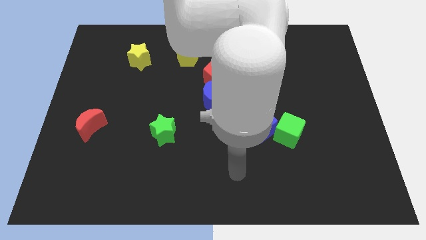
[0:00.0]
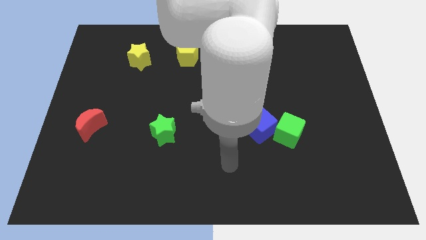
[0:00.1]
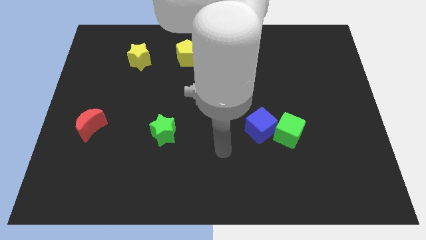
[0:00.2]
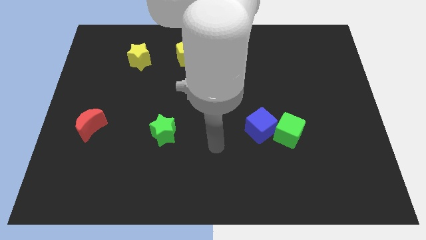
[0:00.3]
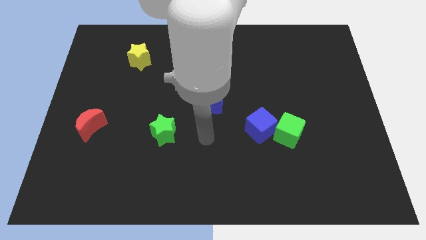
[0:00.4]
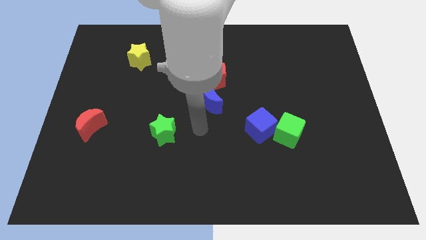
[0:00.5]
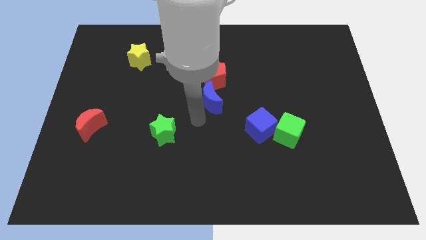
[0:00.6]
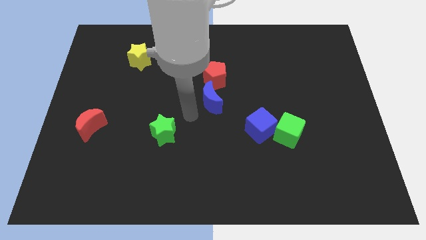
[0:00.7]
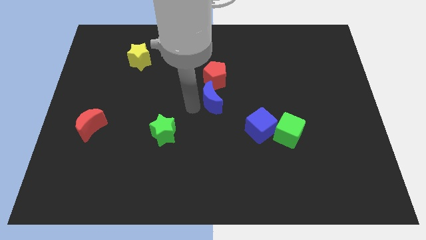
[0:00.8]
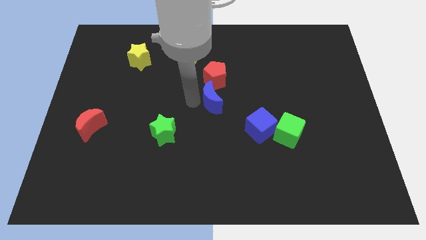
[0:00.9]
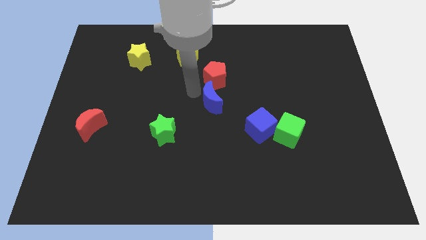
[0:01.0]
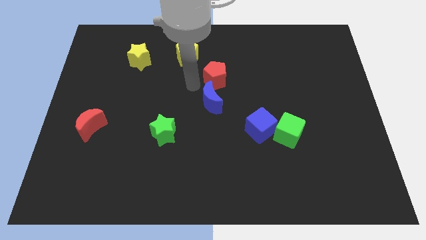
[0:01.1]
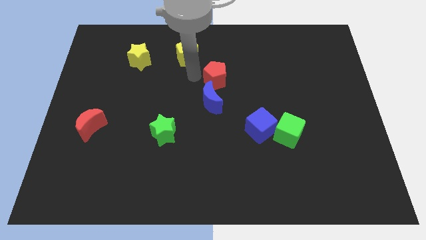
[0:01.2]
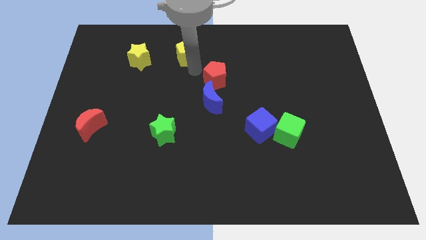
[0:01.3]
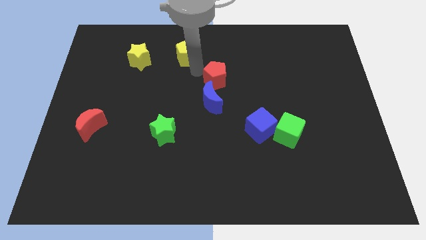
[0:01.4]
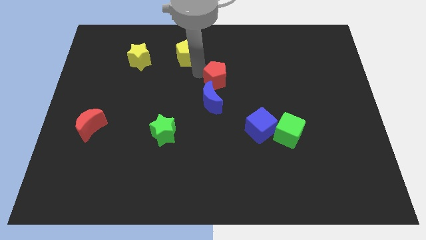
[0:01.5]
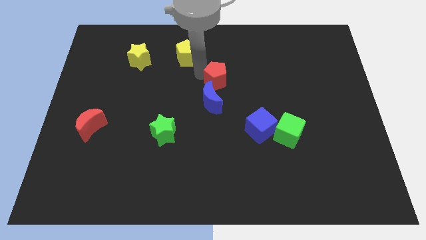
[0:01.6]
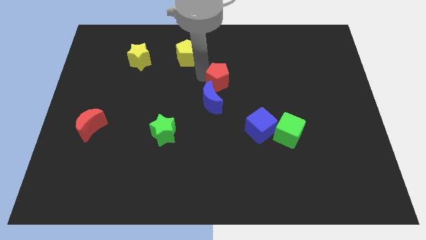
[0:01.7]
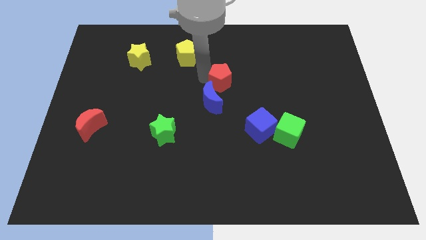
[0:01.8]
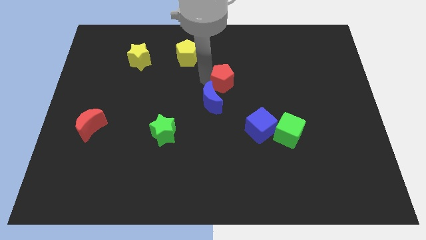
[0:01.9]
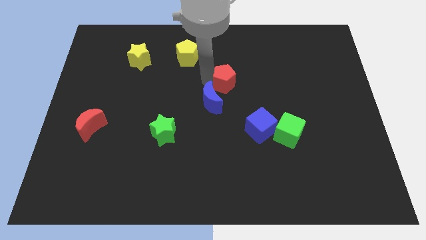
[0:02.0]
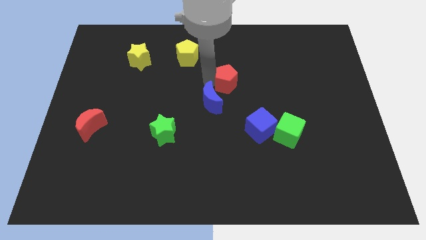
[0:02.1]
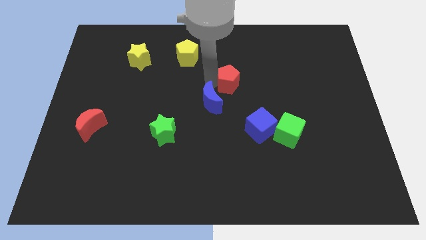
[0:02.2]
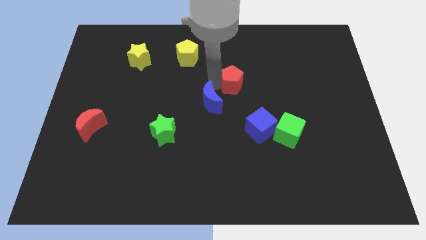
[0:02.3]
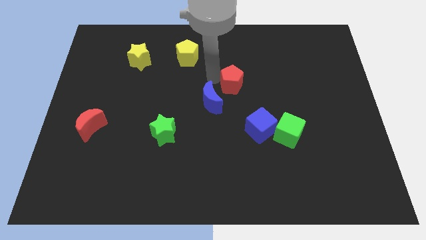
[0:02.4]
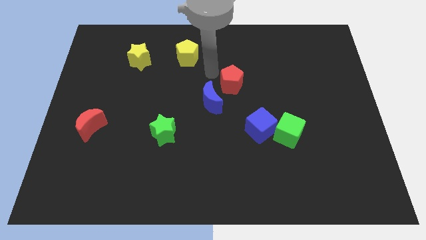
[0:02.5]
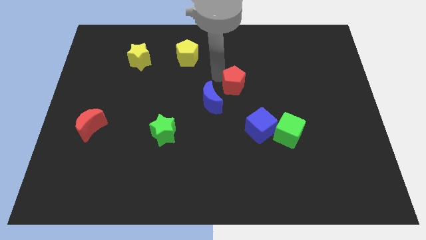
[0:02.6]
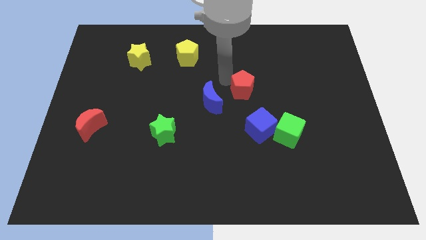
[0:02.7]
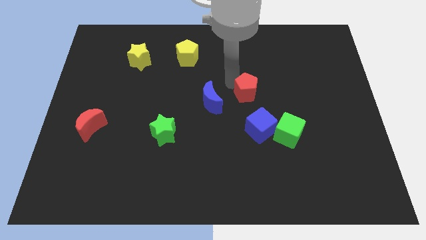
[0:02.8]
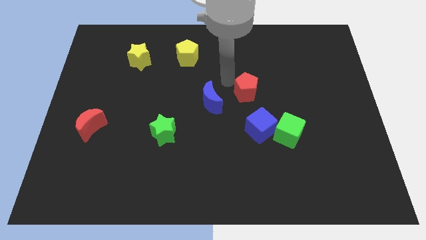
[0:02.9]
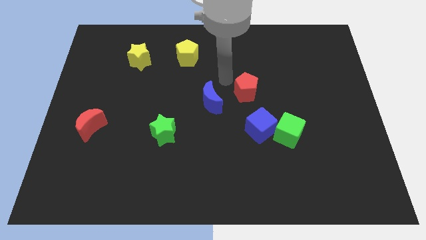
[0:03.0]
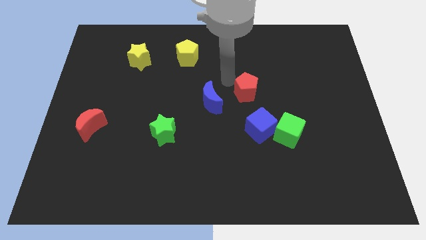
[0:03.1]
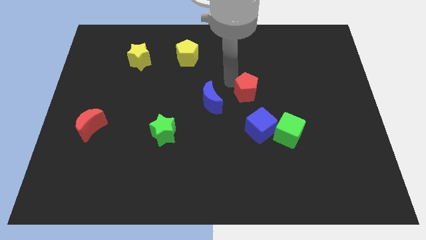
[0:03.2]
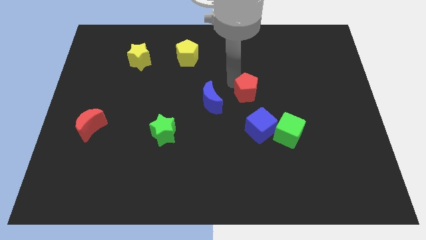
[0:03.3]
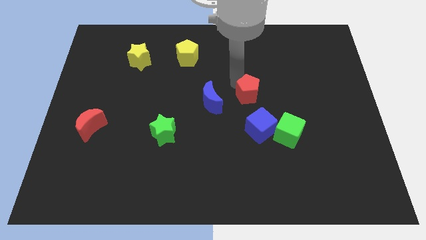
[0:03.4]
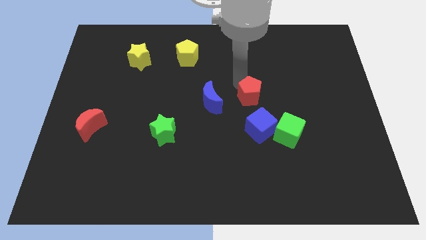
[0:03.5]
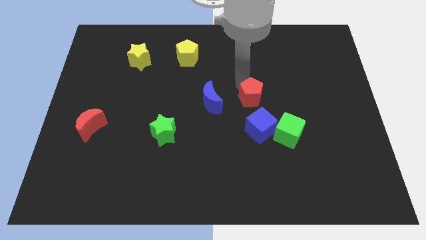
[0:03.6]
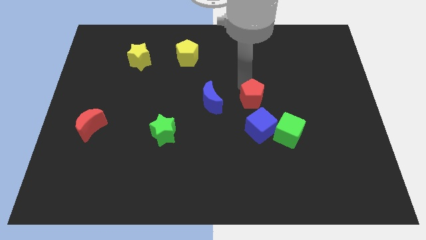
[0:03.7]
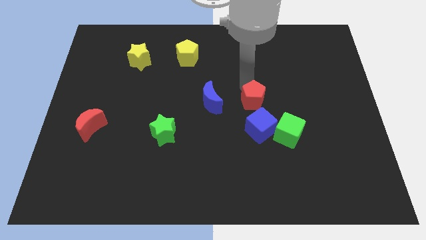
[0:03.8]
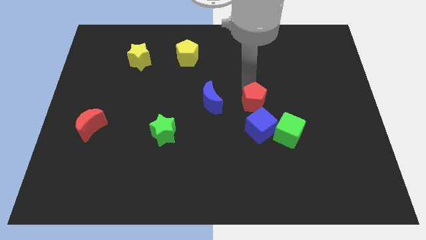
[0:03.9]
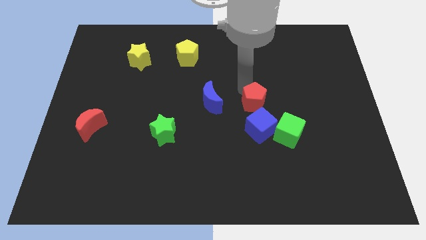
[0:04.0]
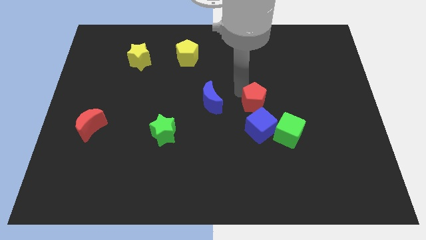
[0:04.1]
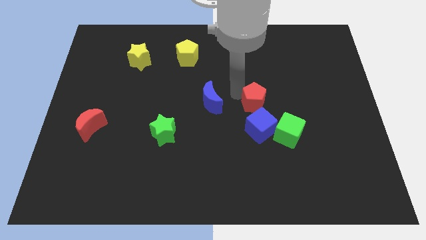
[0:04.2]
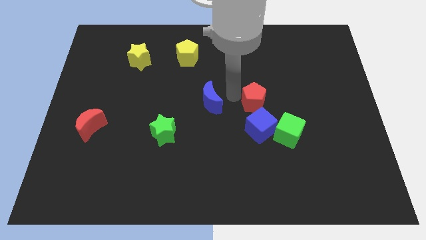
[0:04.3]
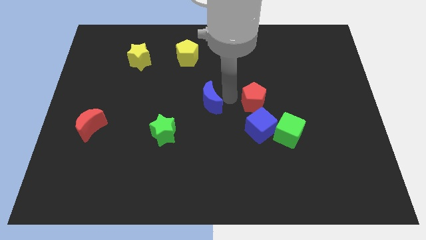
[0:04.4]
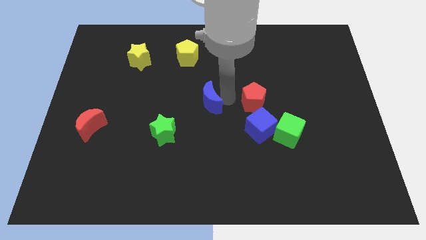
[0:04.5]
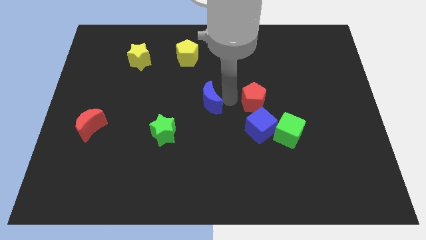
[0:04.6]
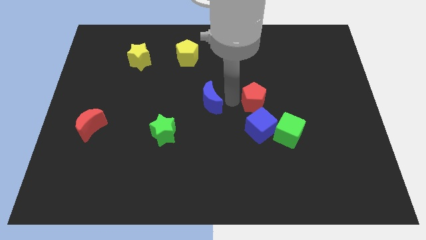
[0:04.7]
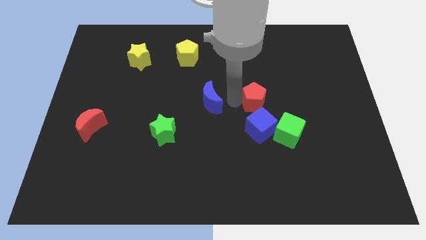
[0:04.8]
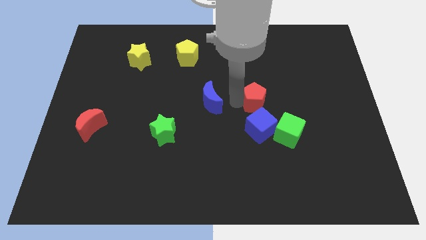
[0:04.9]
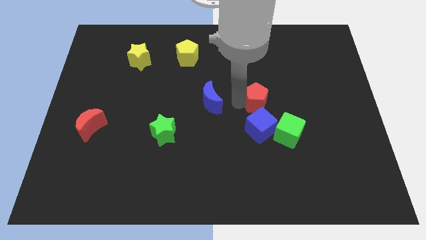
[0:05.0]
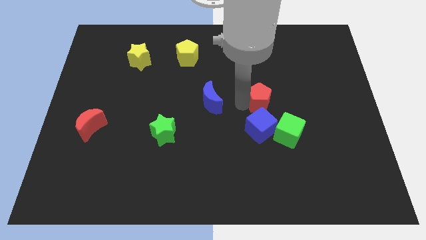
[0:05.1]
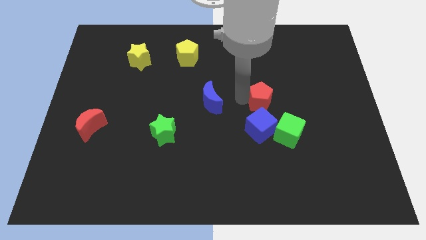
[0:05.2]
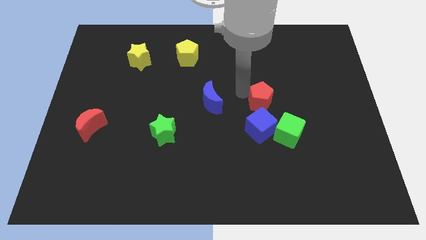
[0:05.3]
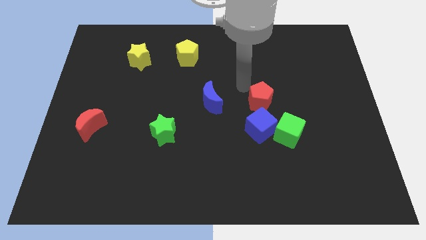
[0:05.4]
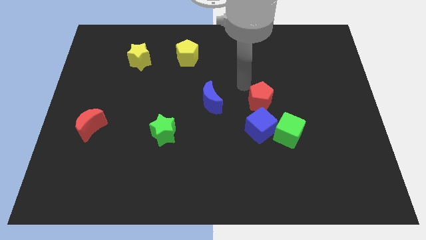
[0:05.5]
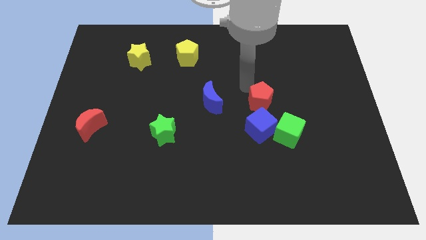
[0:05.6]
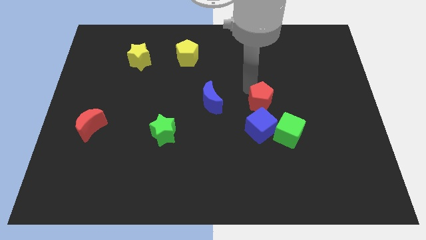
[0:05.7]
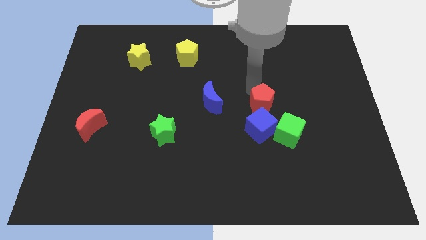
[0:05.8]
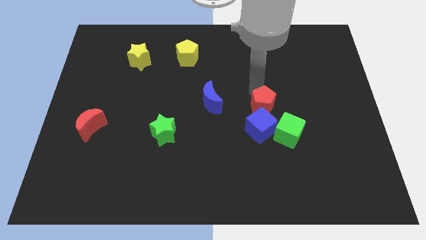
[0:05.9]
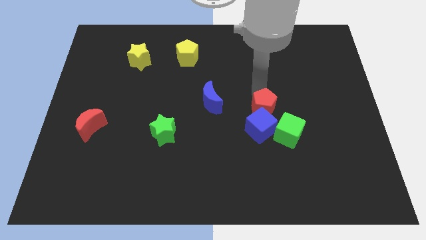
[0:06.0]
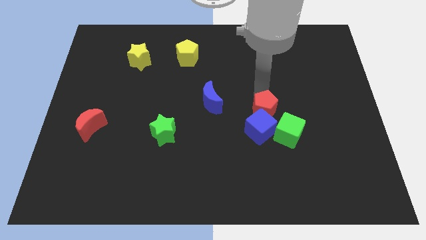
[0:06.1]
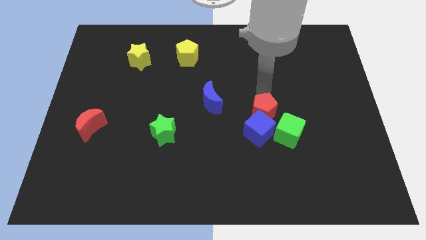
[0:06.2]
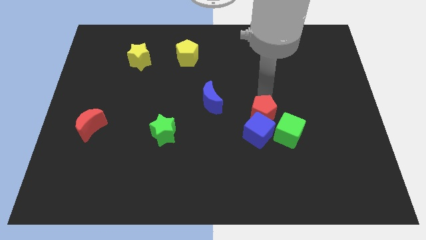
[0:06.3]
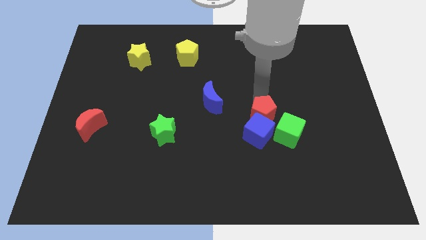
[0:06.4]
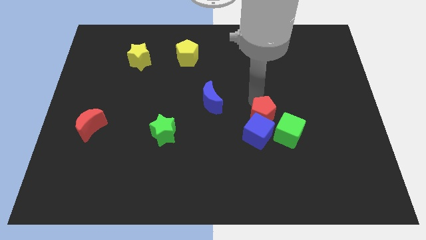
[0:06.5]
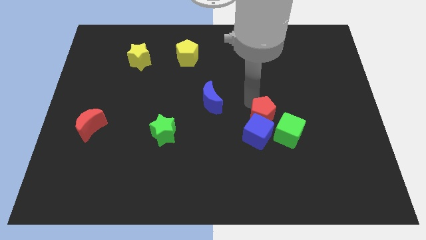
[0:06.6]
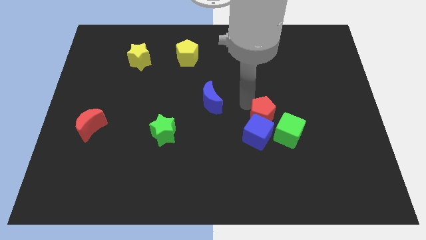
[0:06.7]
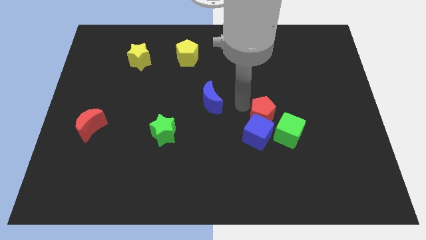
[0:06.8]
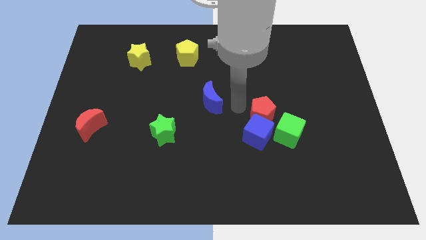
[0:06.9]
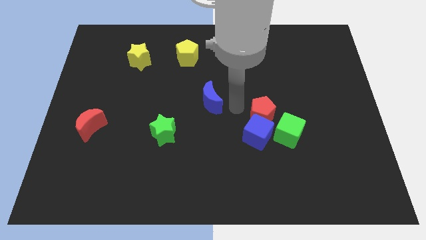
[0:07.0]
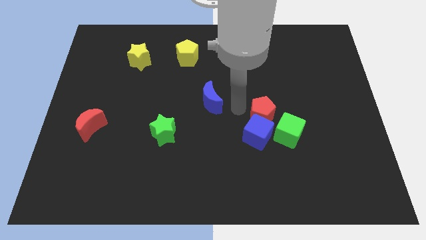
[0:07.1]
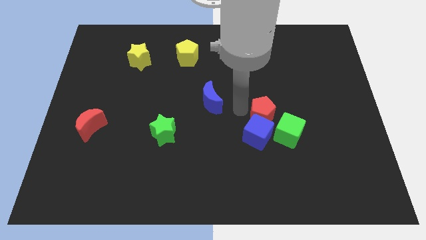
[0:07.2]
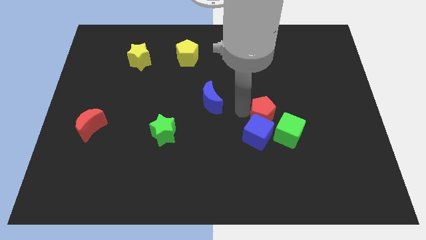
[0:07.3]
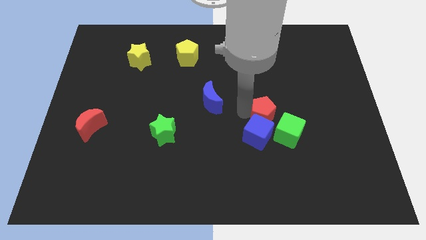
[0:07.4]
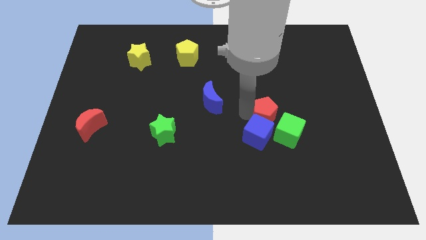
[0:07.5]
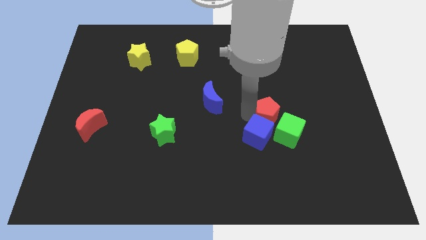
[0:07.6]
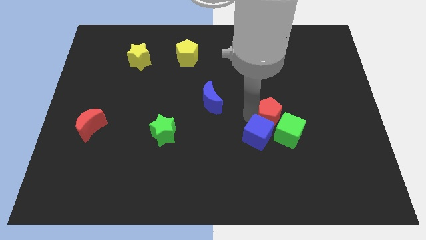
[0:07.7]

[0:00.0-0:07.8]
slide the red pentagon towards the green cube
